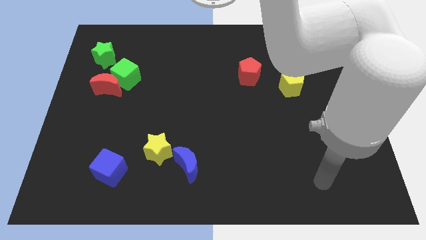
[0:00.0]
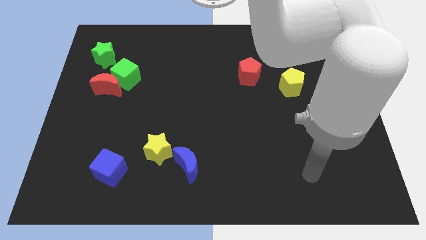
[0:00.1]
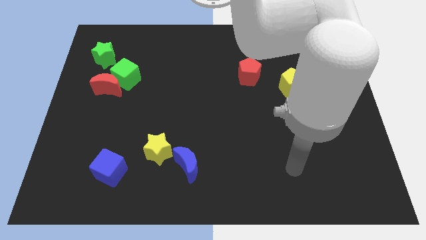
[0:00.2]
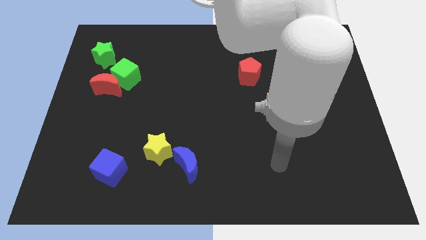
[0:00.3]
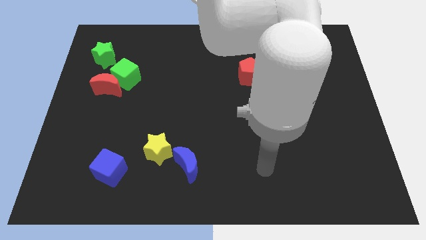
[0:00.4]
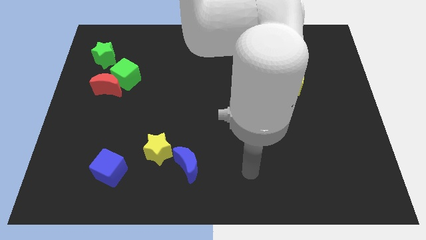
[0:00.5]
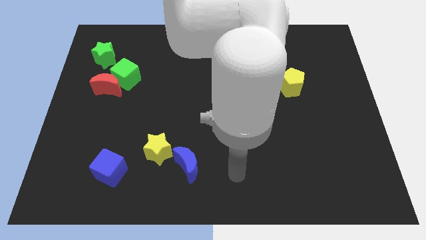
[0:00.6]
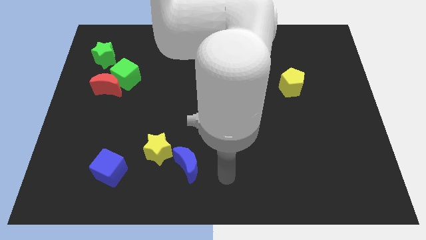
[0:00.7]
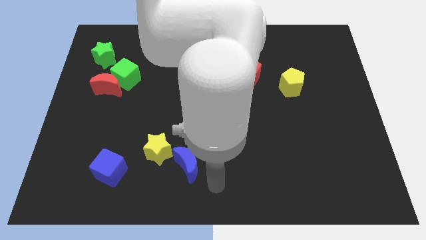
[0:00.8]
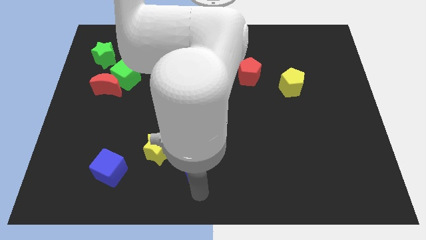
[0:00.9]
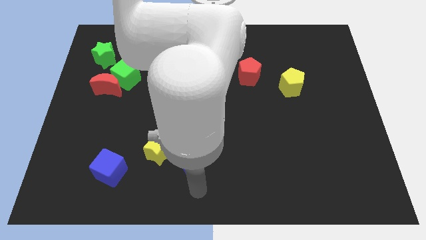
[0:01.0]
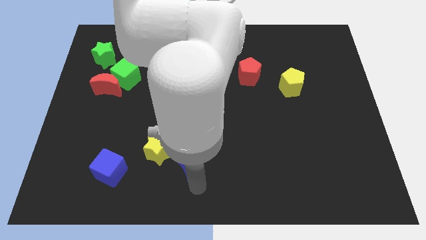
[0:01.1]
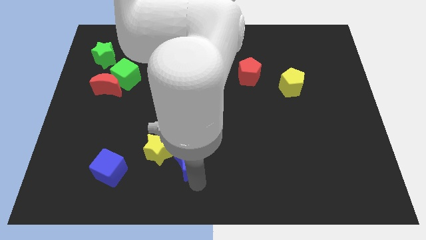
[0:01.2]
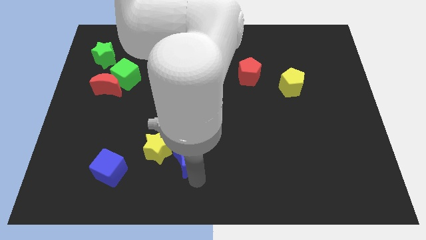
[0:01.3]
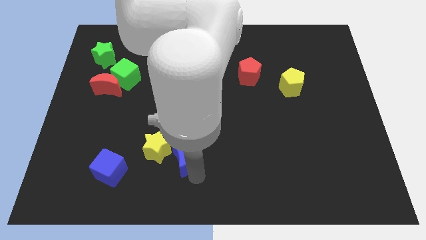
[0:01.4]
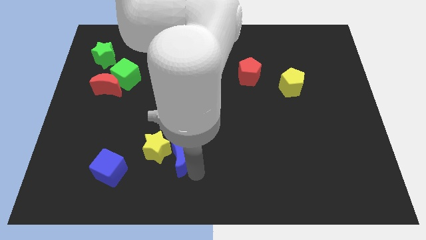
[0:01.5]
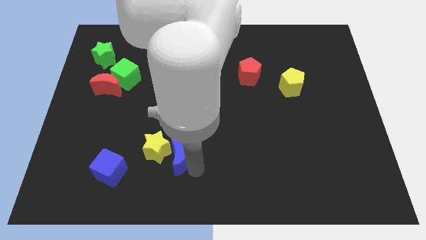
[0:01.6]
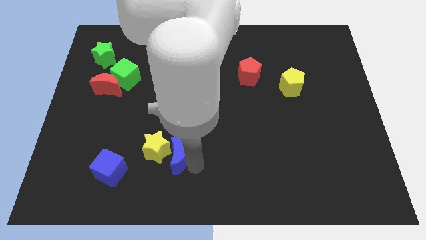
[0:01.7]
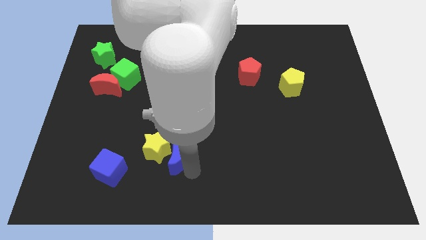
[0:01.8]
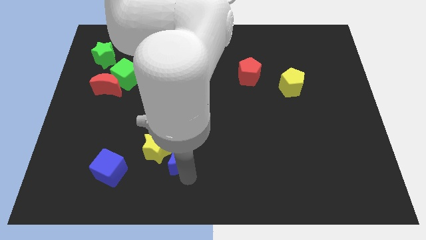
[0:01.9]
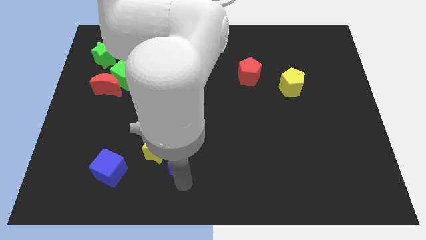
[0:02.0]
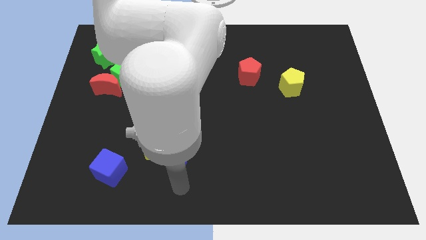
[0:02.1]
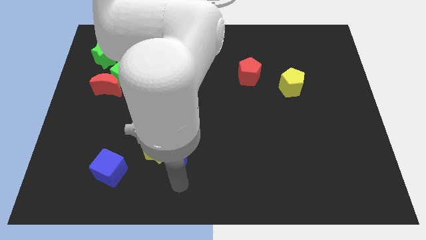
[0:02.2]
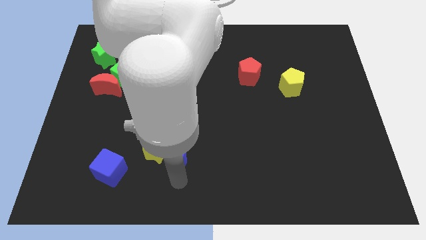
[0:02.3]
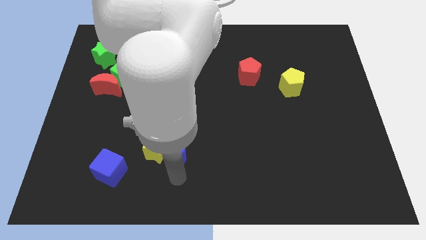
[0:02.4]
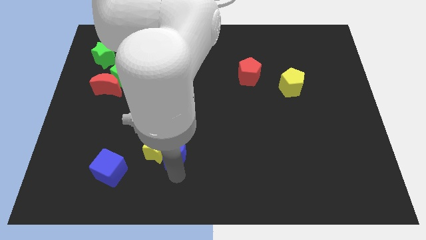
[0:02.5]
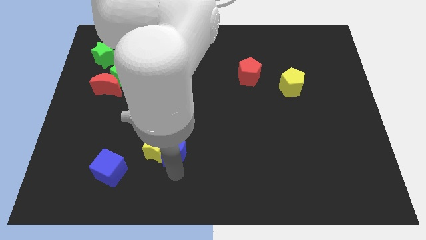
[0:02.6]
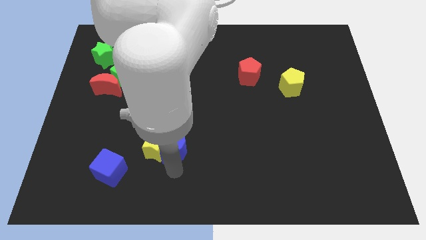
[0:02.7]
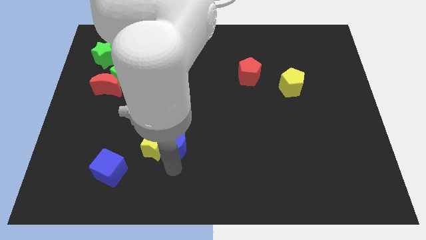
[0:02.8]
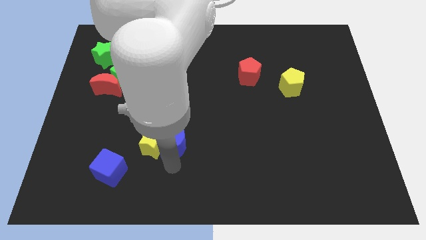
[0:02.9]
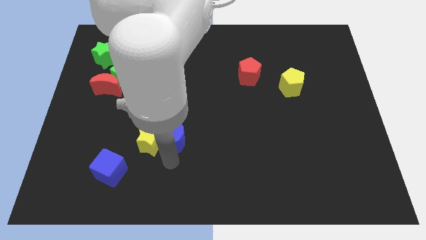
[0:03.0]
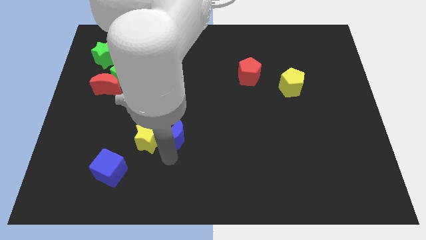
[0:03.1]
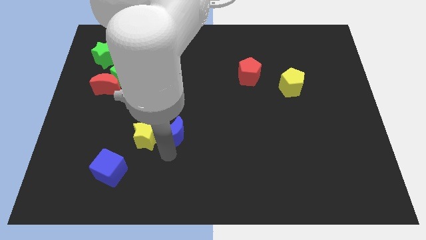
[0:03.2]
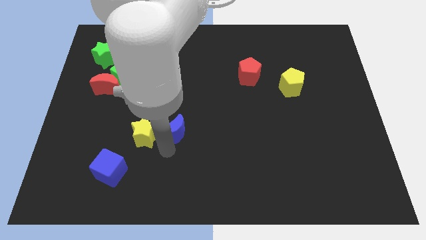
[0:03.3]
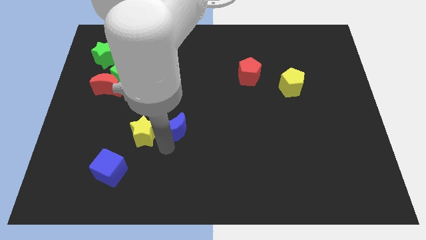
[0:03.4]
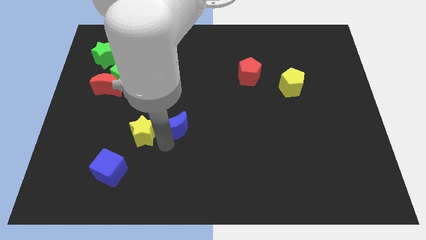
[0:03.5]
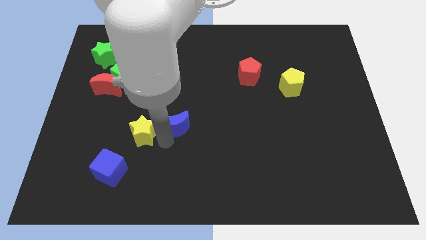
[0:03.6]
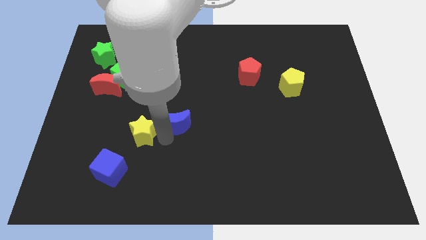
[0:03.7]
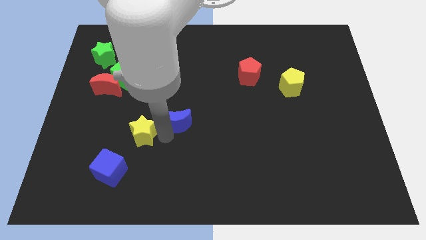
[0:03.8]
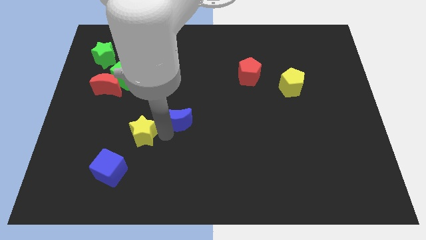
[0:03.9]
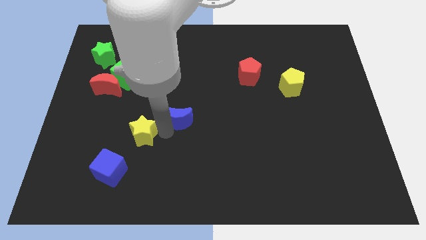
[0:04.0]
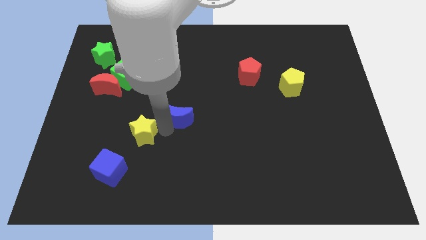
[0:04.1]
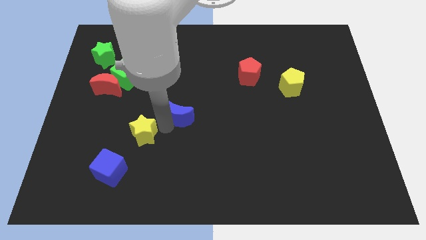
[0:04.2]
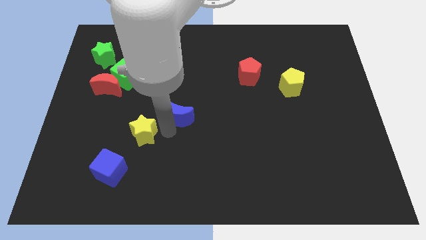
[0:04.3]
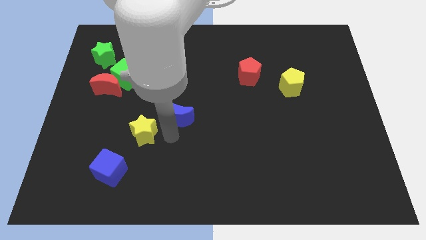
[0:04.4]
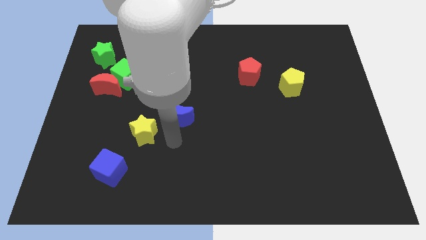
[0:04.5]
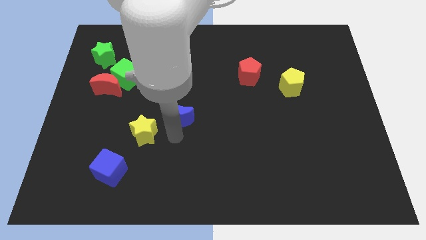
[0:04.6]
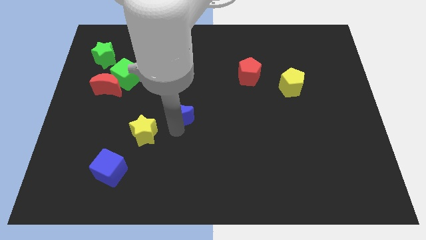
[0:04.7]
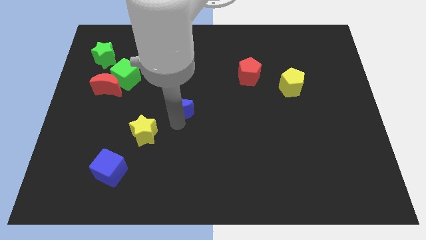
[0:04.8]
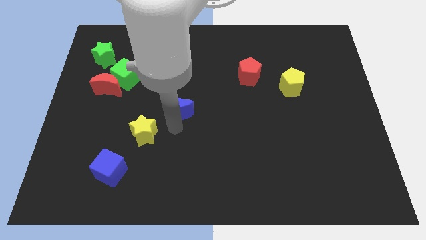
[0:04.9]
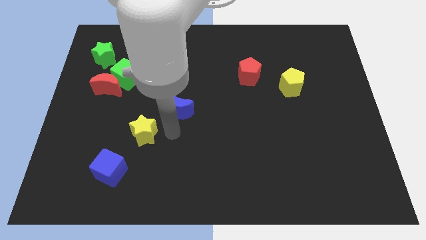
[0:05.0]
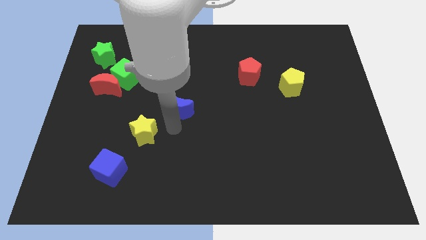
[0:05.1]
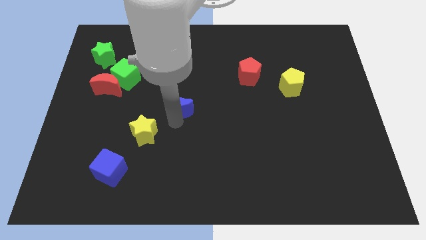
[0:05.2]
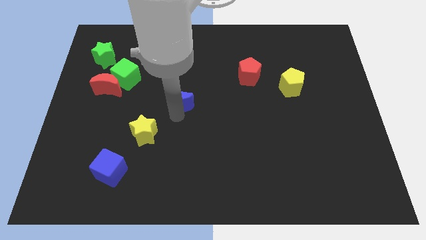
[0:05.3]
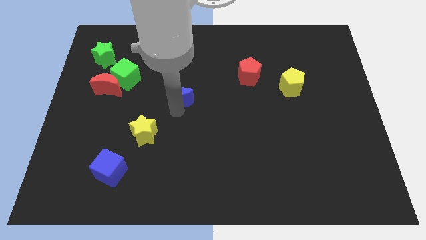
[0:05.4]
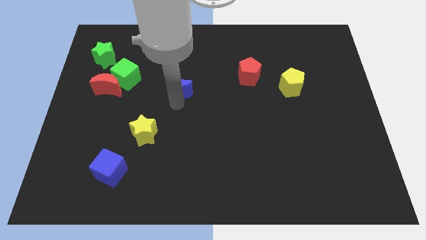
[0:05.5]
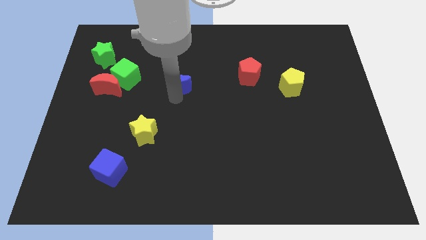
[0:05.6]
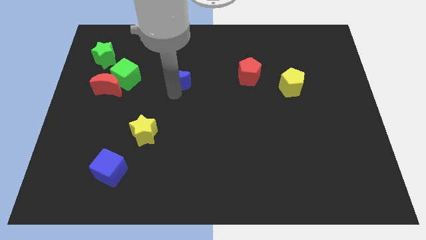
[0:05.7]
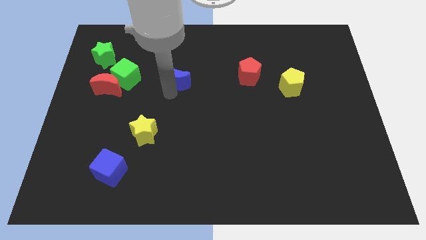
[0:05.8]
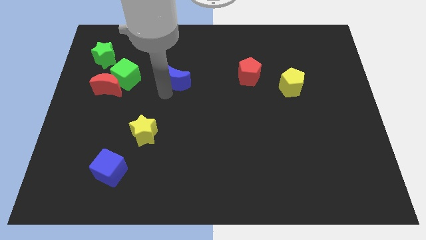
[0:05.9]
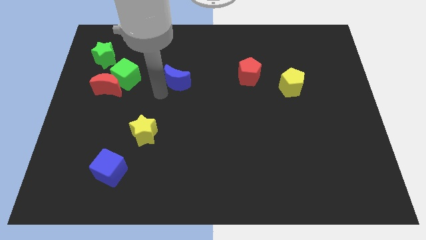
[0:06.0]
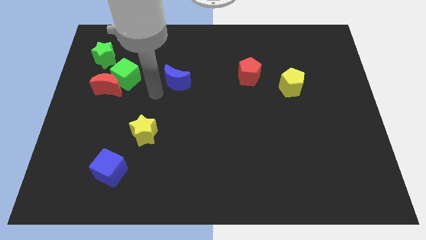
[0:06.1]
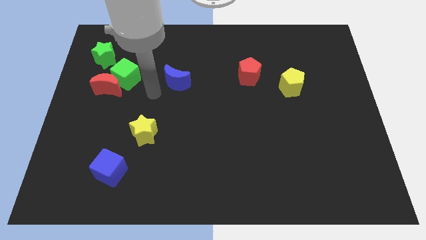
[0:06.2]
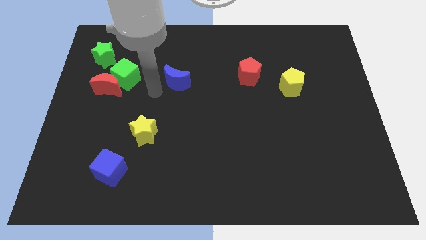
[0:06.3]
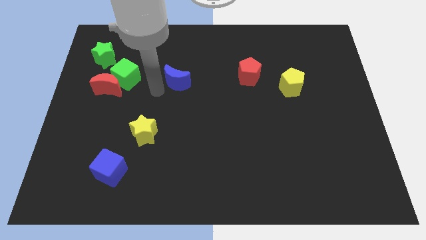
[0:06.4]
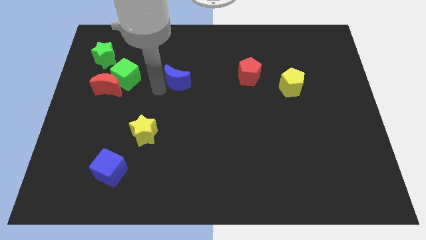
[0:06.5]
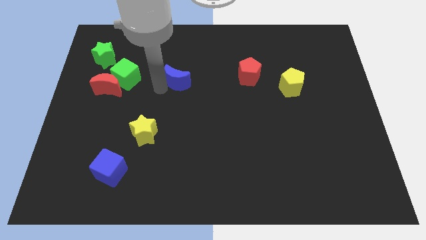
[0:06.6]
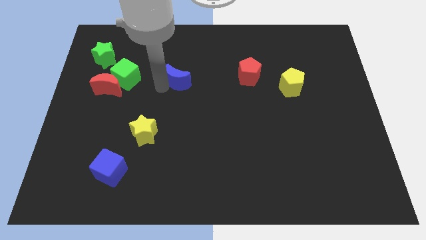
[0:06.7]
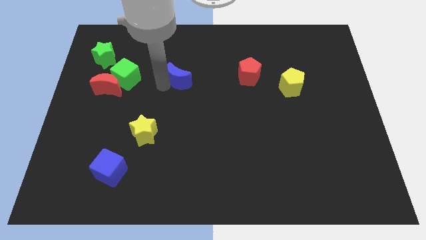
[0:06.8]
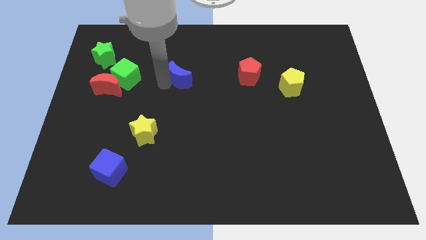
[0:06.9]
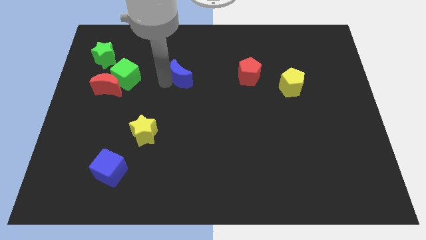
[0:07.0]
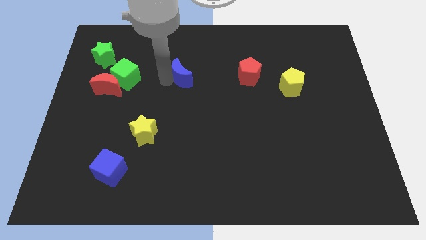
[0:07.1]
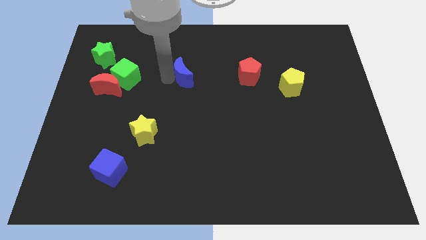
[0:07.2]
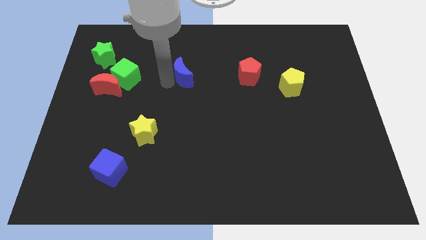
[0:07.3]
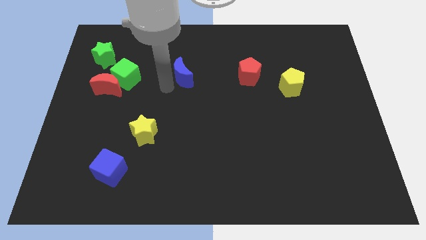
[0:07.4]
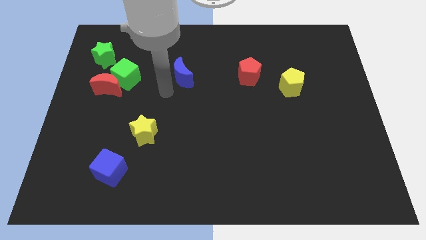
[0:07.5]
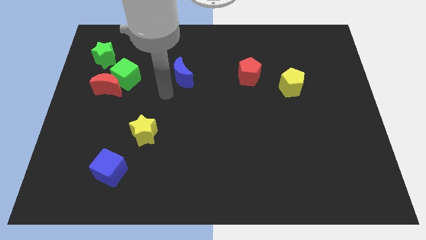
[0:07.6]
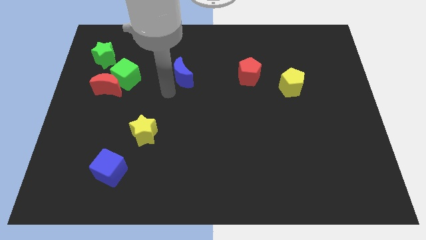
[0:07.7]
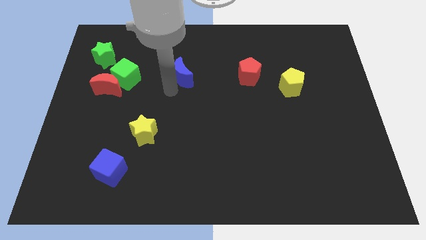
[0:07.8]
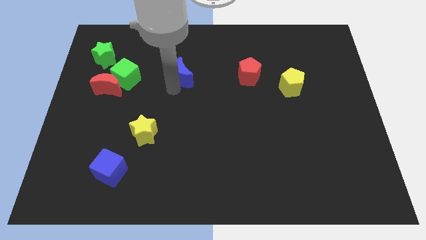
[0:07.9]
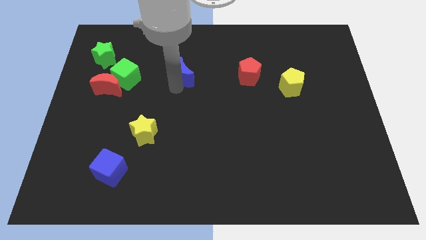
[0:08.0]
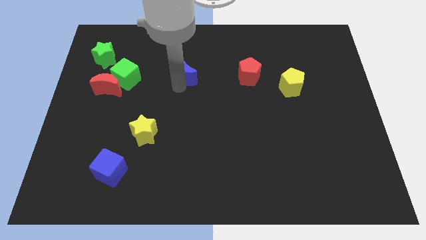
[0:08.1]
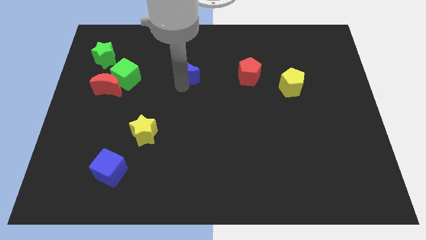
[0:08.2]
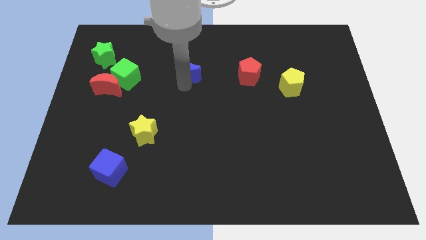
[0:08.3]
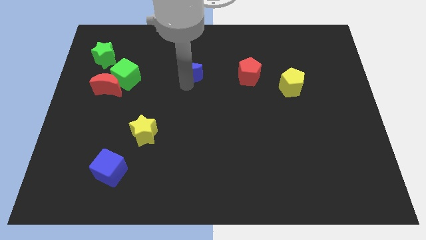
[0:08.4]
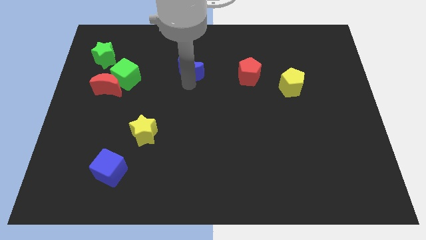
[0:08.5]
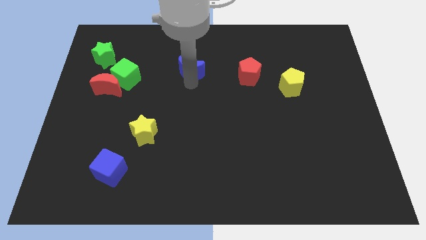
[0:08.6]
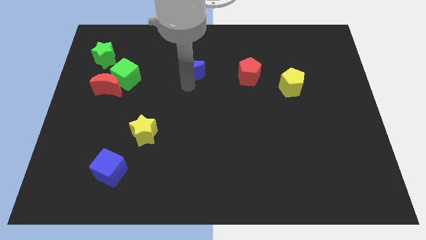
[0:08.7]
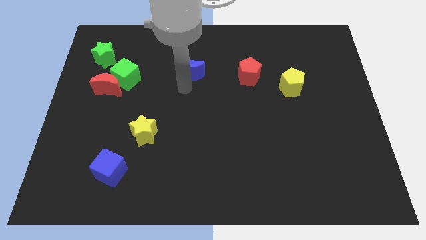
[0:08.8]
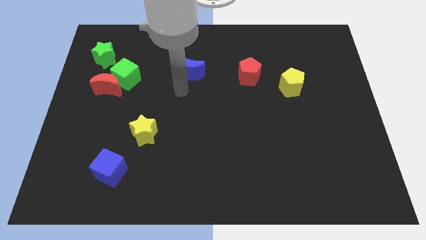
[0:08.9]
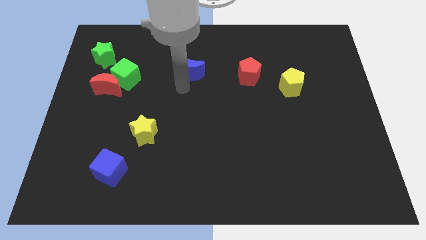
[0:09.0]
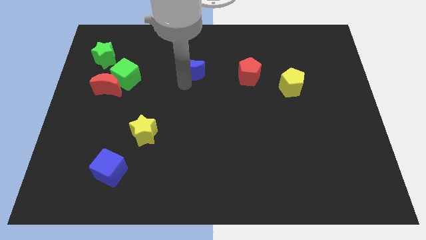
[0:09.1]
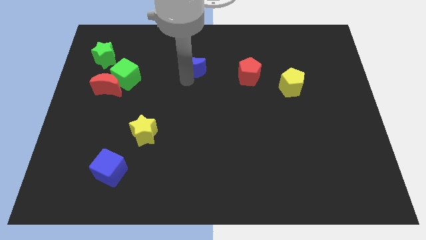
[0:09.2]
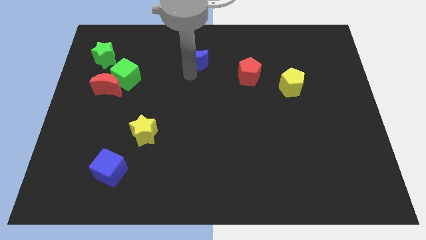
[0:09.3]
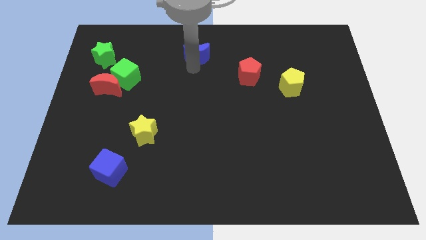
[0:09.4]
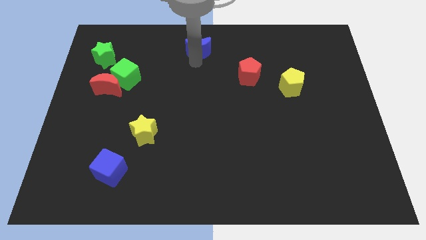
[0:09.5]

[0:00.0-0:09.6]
push the blue moon to the top
